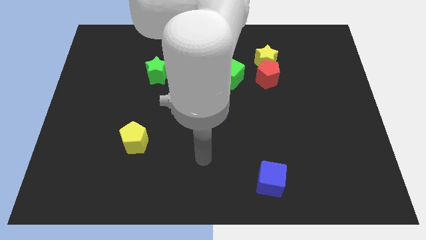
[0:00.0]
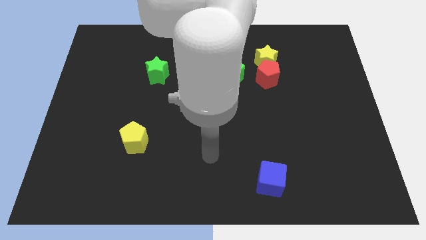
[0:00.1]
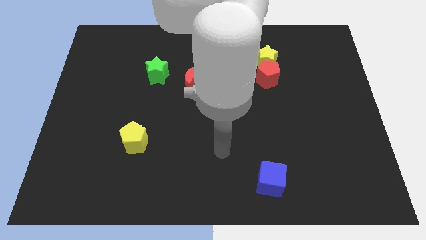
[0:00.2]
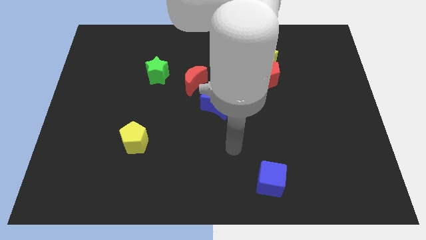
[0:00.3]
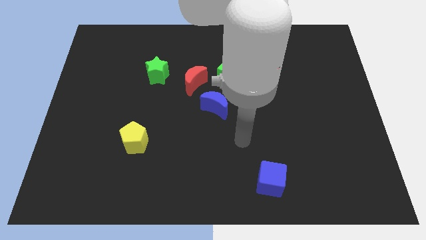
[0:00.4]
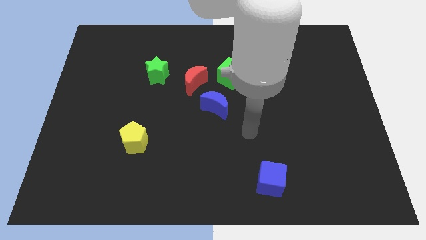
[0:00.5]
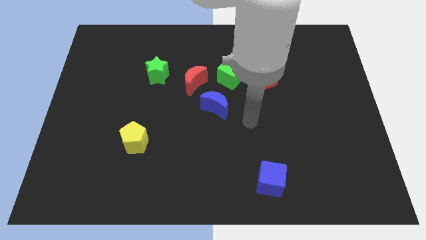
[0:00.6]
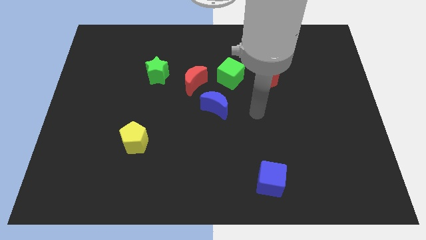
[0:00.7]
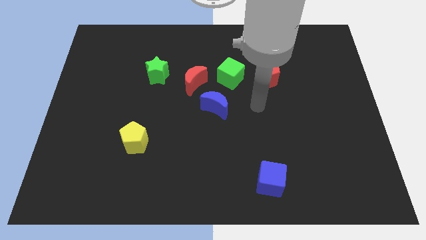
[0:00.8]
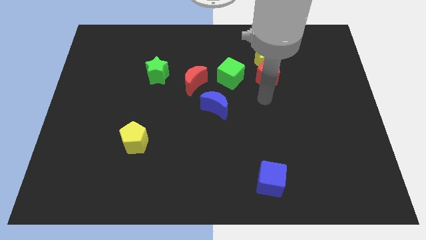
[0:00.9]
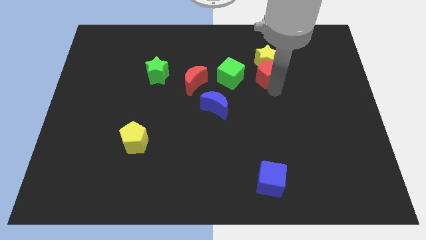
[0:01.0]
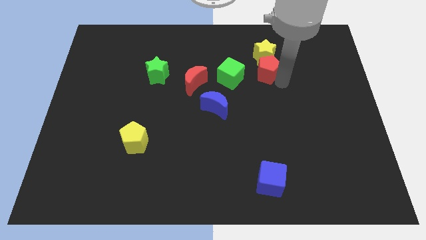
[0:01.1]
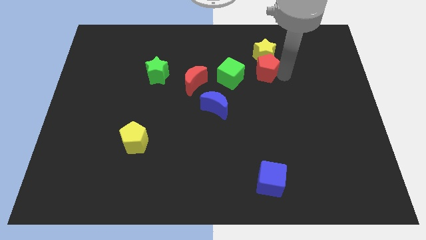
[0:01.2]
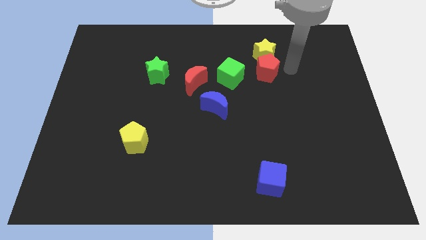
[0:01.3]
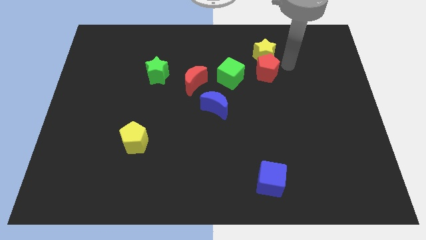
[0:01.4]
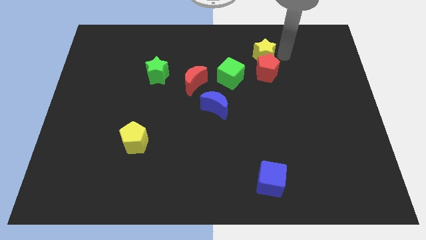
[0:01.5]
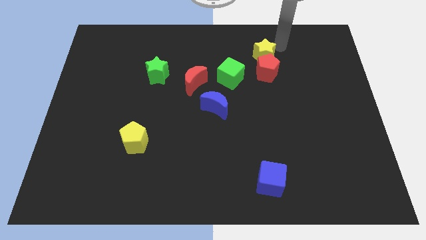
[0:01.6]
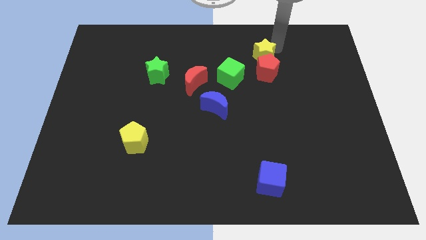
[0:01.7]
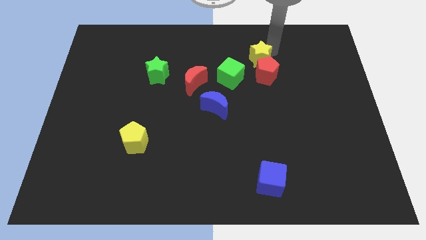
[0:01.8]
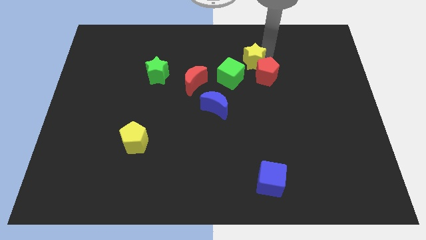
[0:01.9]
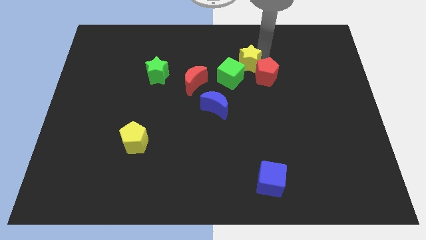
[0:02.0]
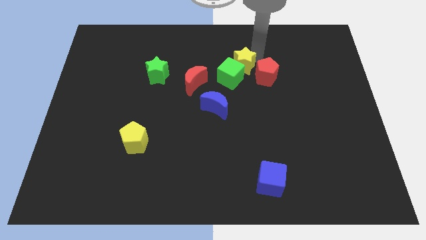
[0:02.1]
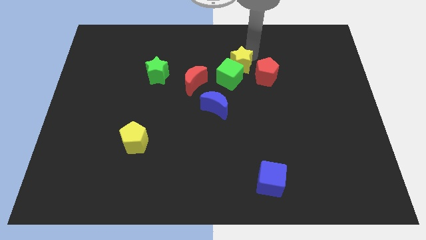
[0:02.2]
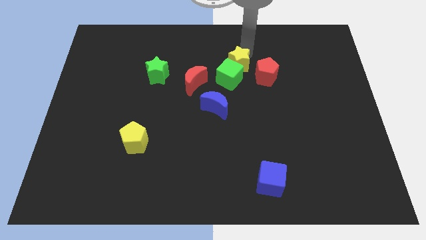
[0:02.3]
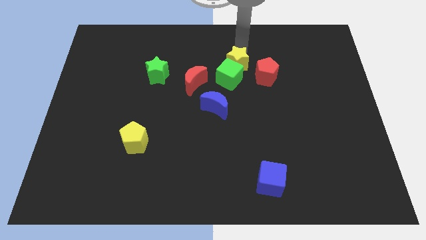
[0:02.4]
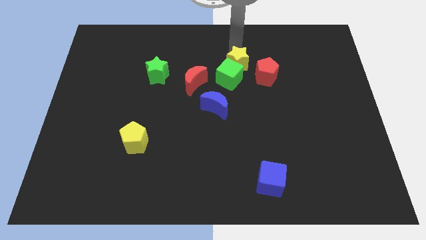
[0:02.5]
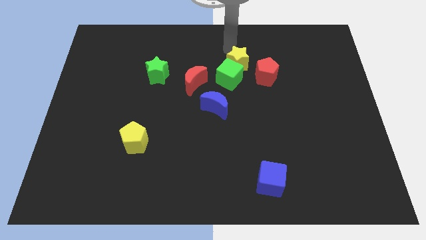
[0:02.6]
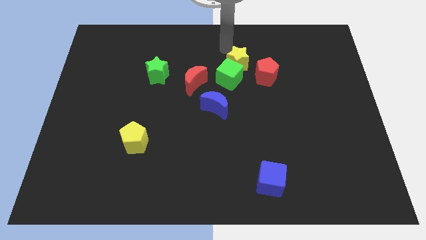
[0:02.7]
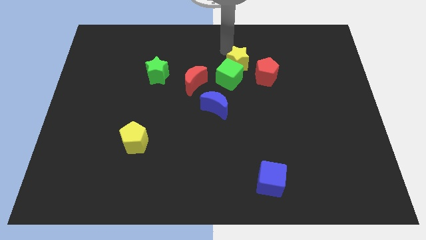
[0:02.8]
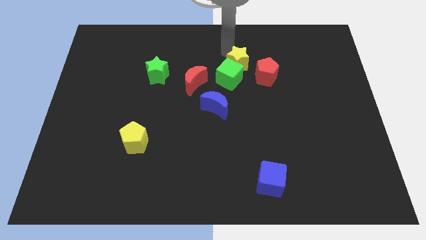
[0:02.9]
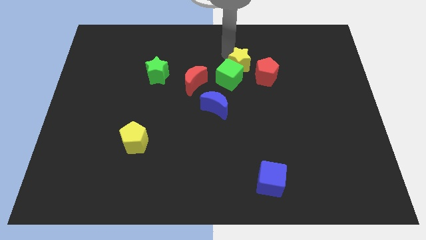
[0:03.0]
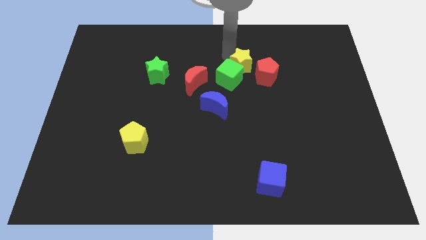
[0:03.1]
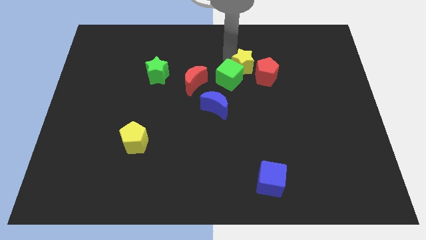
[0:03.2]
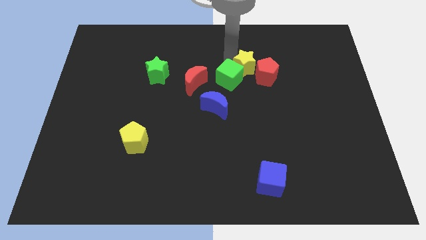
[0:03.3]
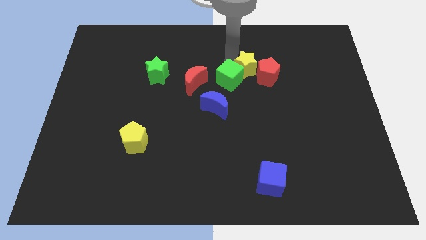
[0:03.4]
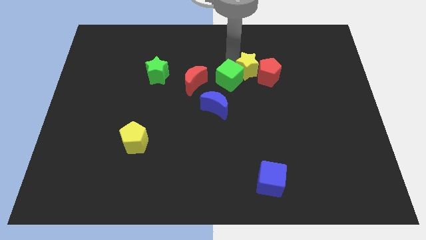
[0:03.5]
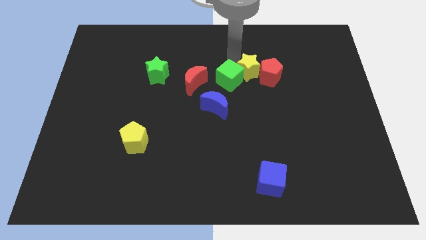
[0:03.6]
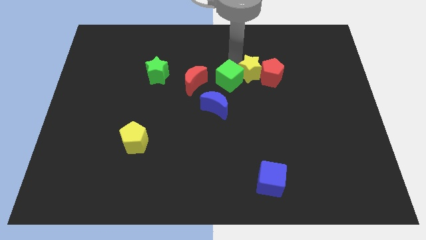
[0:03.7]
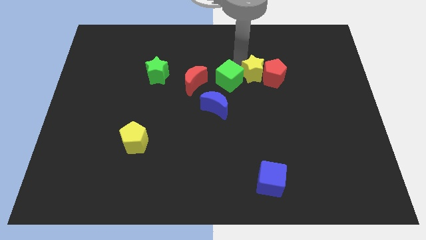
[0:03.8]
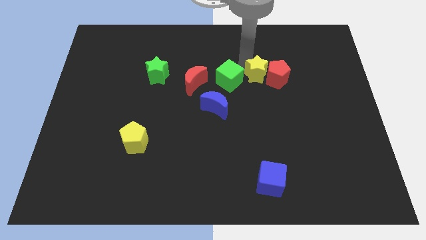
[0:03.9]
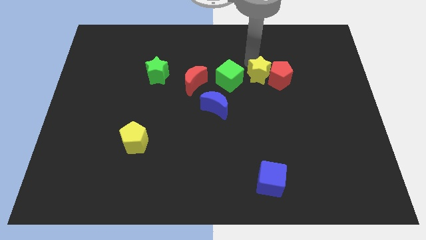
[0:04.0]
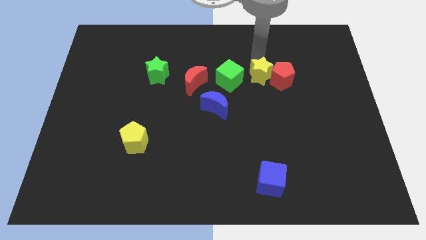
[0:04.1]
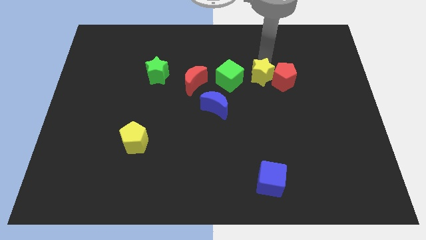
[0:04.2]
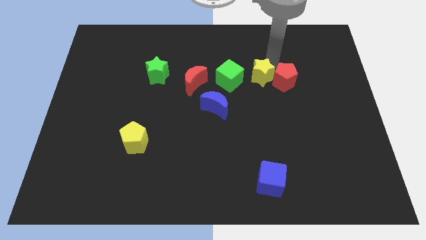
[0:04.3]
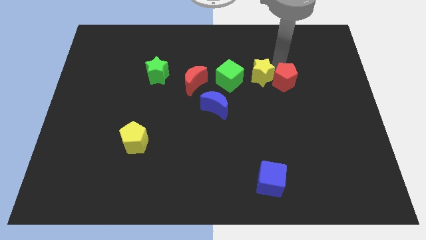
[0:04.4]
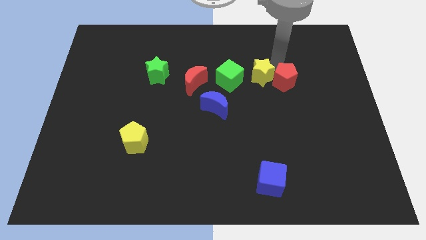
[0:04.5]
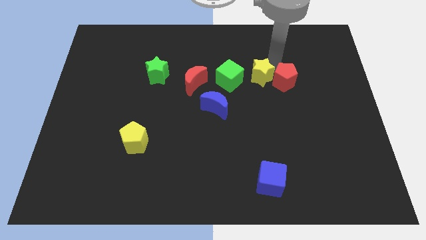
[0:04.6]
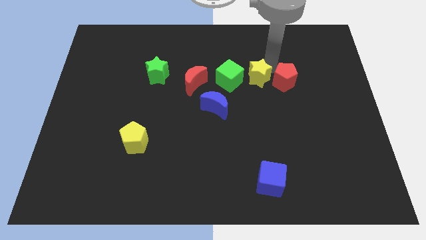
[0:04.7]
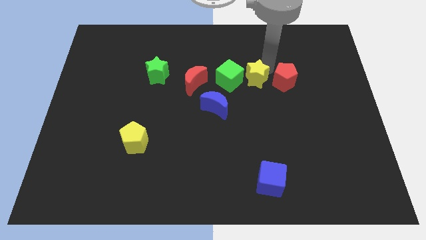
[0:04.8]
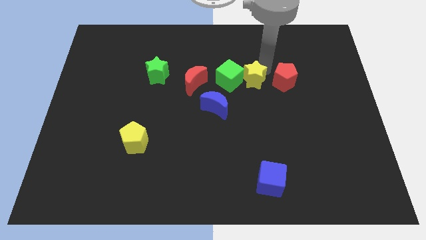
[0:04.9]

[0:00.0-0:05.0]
move the yellow star to the top right side of the blue moon

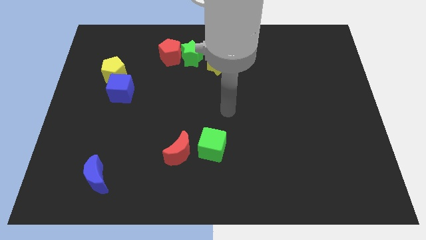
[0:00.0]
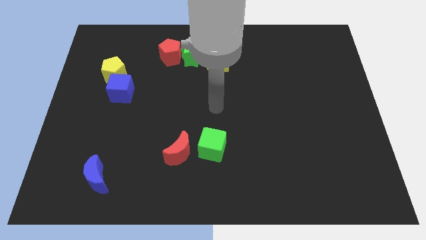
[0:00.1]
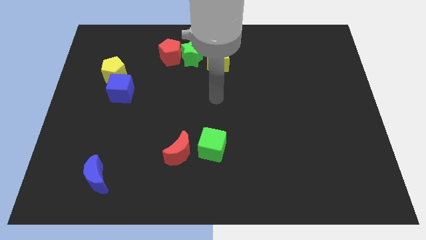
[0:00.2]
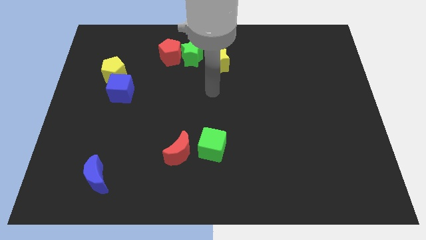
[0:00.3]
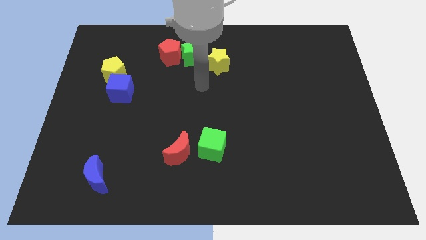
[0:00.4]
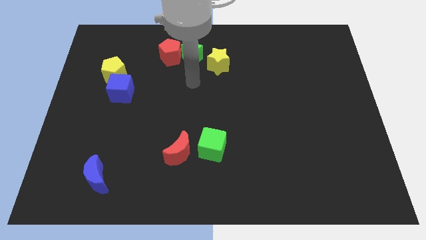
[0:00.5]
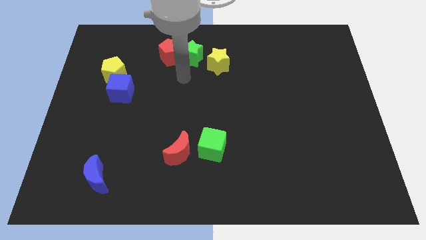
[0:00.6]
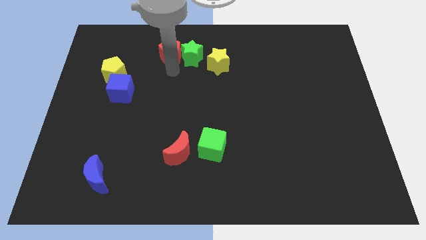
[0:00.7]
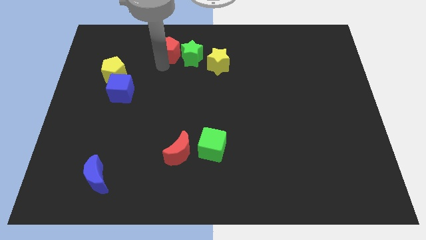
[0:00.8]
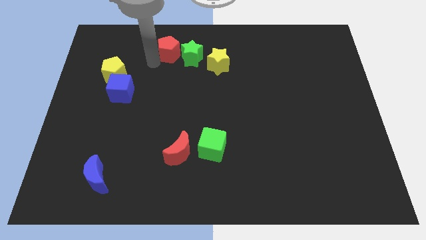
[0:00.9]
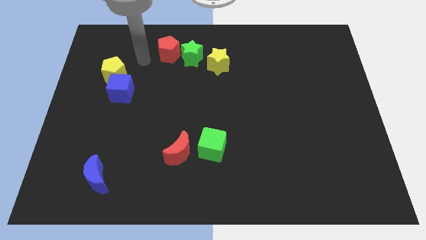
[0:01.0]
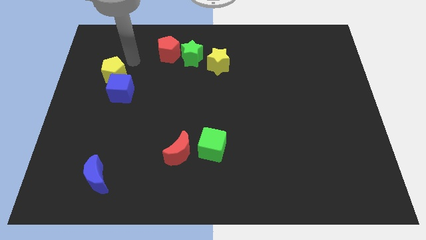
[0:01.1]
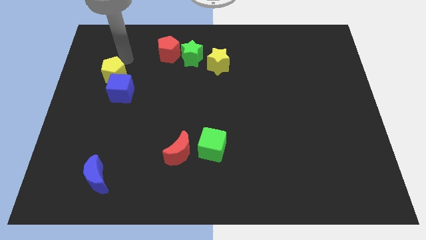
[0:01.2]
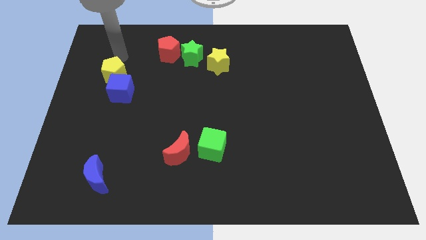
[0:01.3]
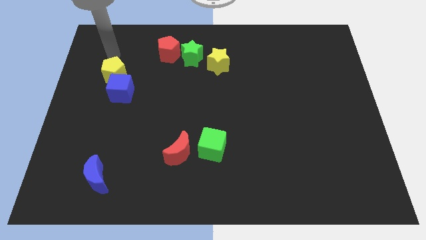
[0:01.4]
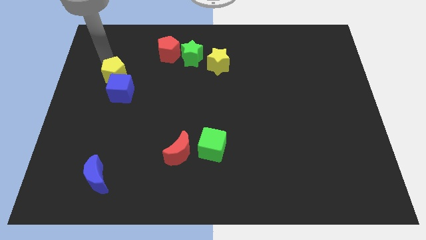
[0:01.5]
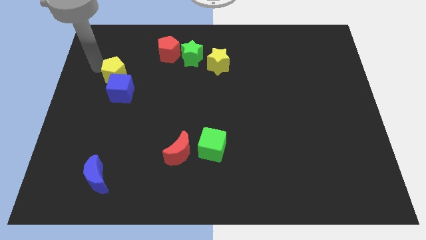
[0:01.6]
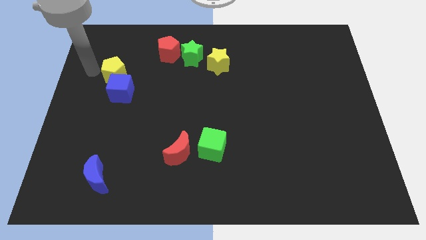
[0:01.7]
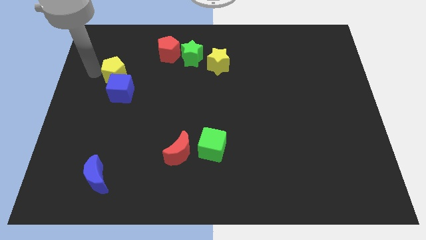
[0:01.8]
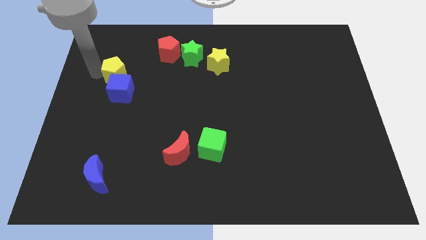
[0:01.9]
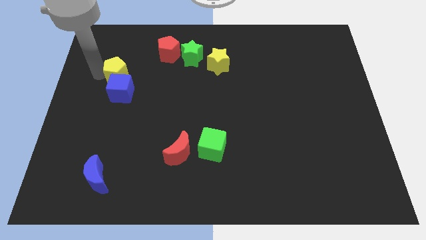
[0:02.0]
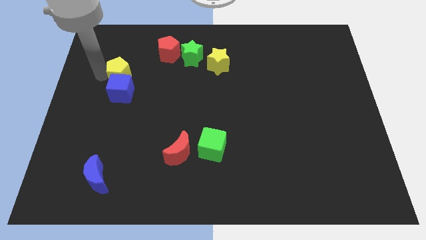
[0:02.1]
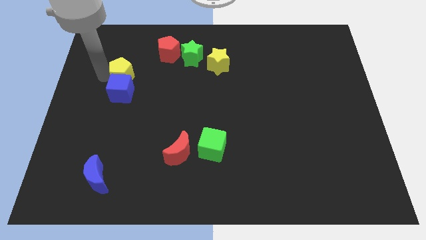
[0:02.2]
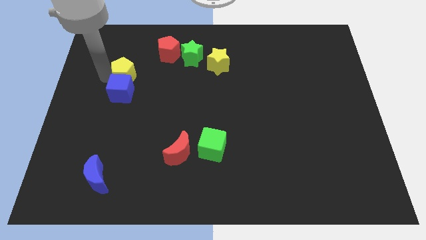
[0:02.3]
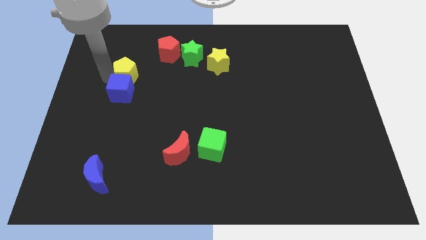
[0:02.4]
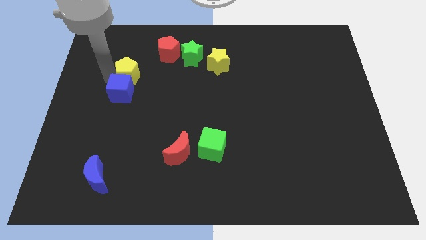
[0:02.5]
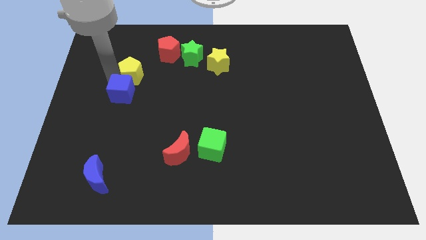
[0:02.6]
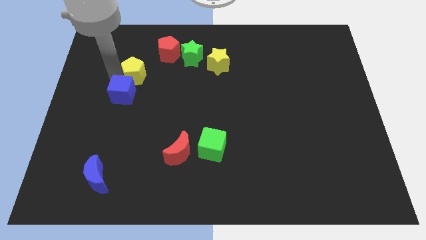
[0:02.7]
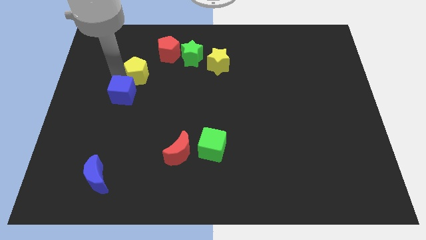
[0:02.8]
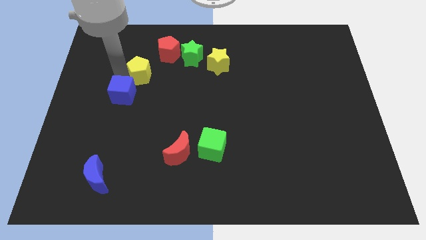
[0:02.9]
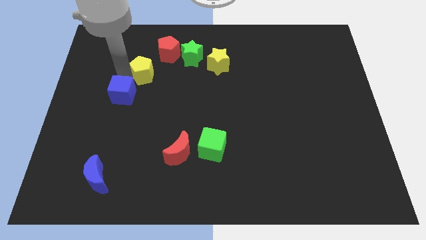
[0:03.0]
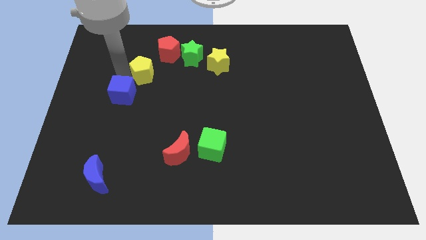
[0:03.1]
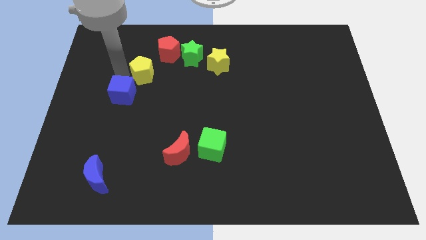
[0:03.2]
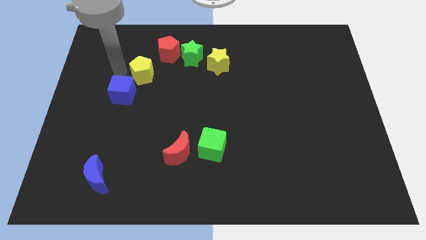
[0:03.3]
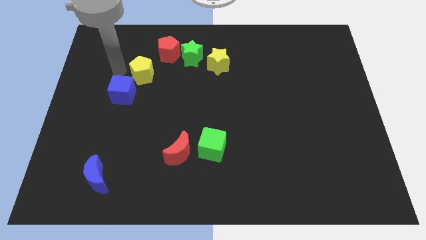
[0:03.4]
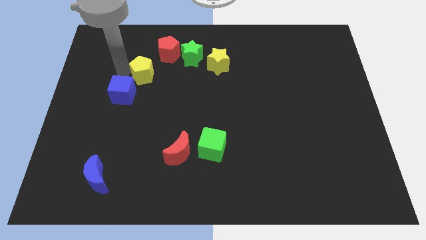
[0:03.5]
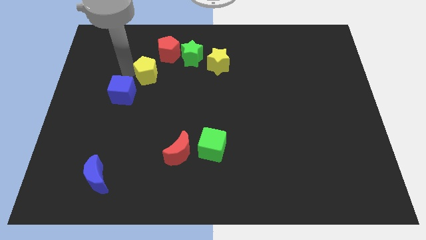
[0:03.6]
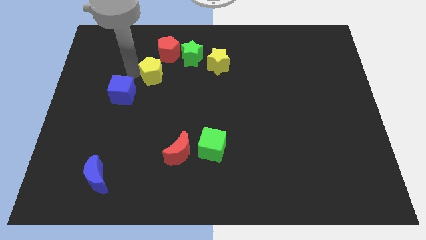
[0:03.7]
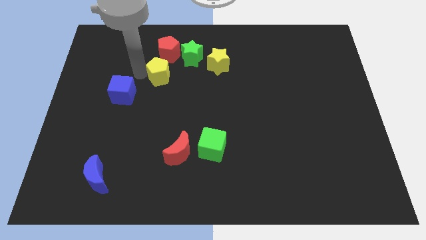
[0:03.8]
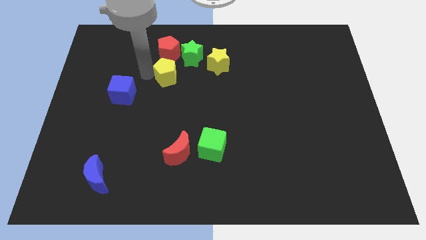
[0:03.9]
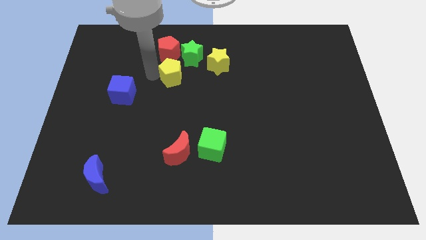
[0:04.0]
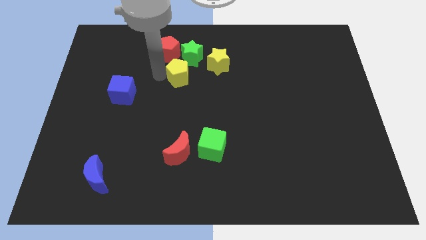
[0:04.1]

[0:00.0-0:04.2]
put the yellow pentagon to the bottom left side of the yellow star
